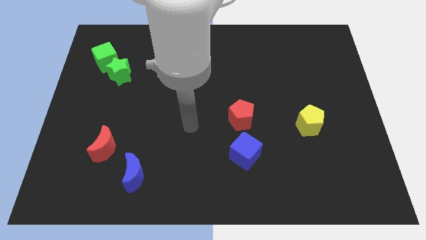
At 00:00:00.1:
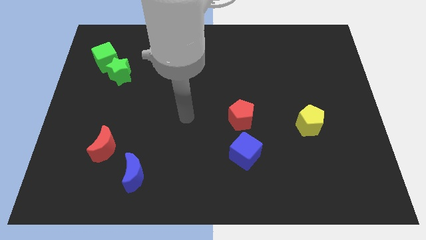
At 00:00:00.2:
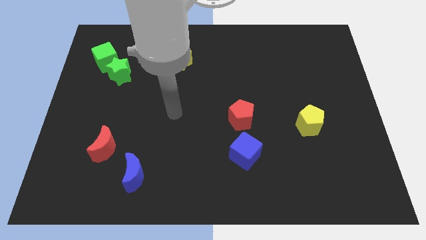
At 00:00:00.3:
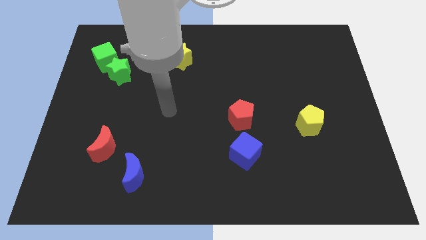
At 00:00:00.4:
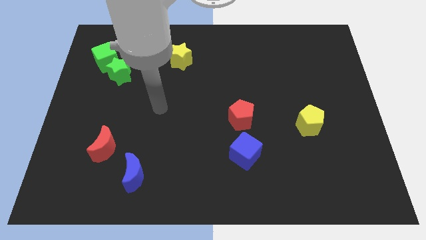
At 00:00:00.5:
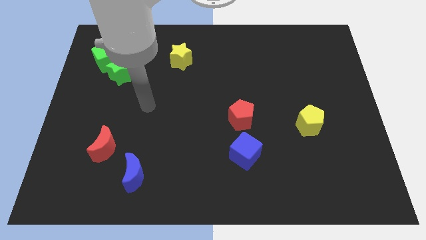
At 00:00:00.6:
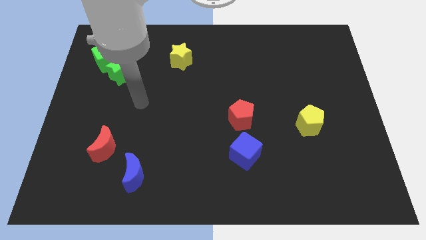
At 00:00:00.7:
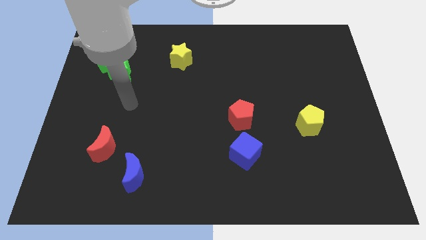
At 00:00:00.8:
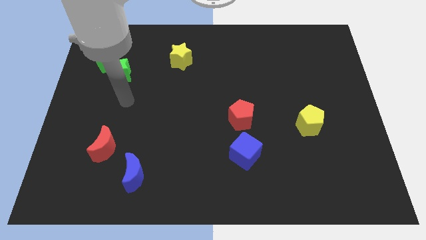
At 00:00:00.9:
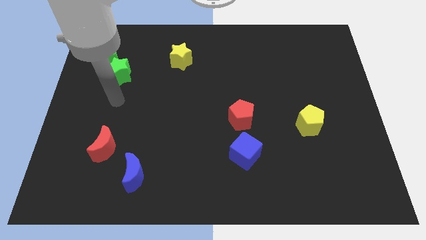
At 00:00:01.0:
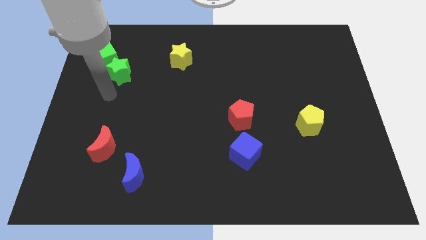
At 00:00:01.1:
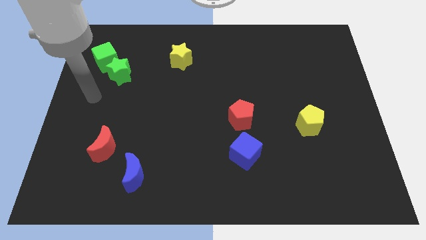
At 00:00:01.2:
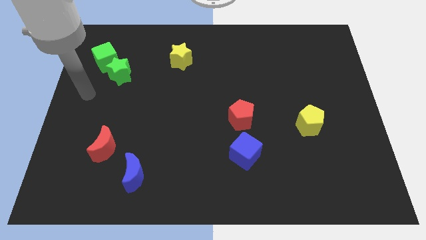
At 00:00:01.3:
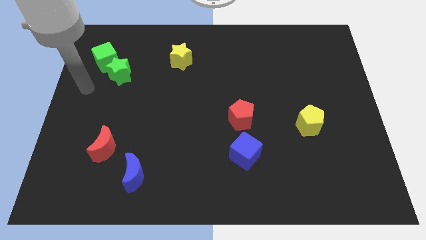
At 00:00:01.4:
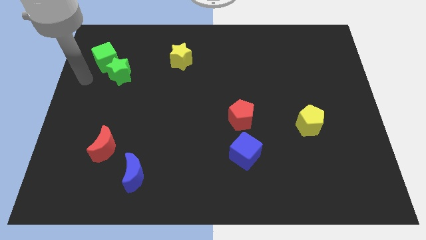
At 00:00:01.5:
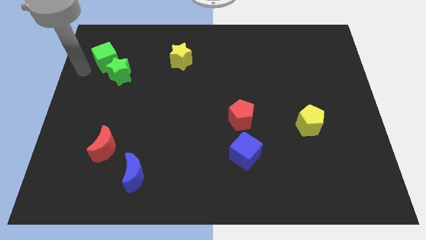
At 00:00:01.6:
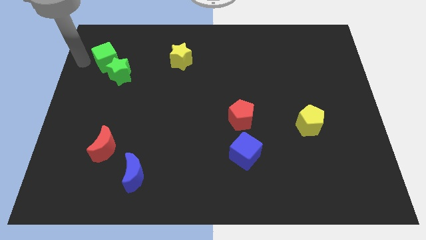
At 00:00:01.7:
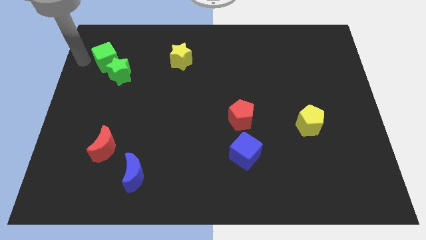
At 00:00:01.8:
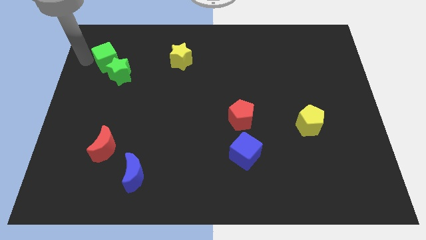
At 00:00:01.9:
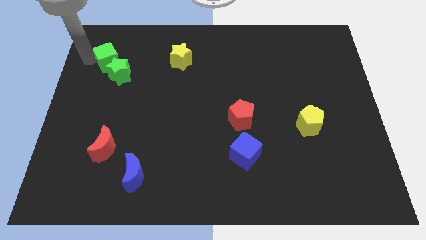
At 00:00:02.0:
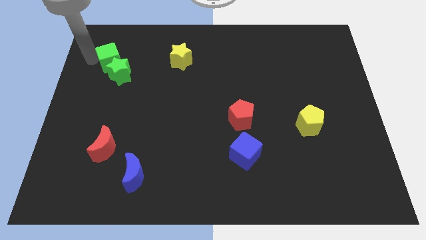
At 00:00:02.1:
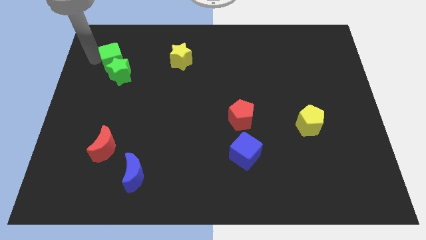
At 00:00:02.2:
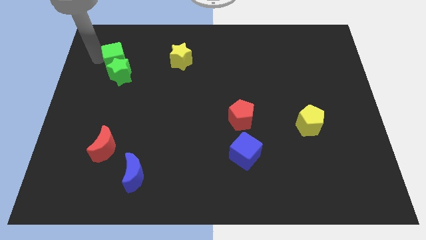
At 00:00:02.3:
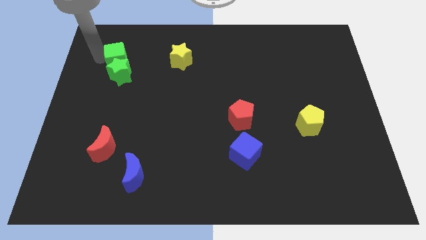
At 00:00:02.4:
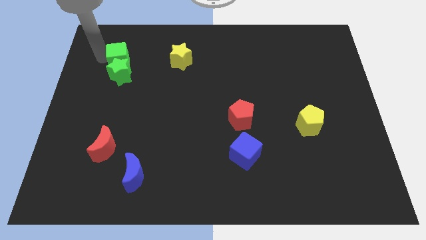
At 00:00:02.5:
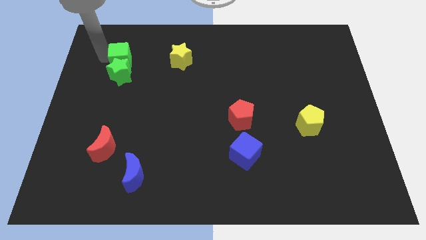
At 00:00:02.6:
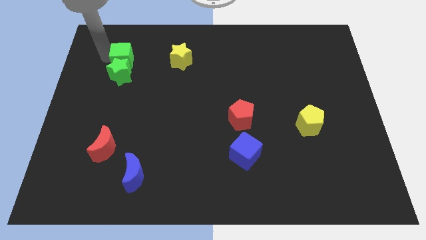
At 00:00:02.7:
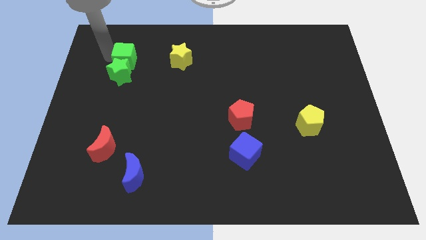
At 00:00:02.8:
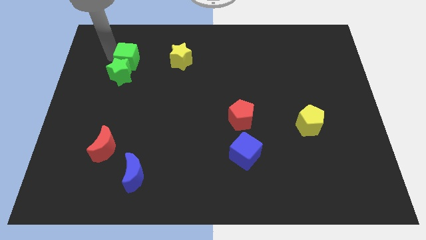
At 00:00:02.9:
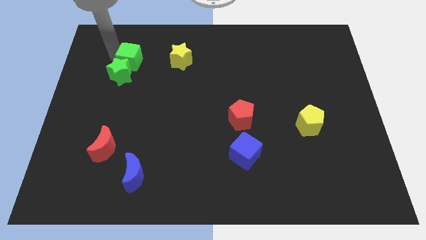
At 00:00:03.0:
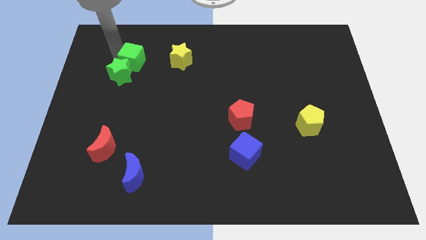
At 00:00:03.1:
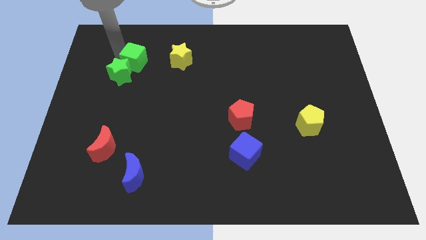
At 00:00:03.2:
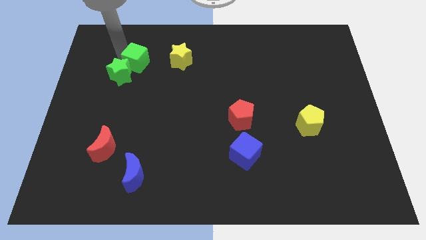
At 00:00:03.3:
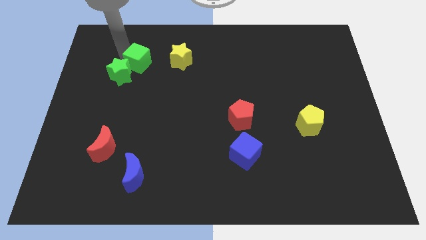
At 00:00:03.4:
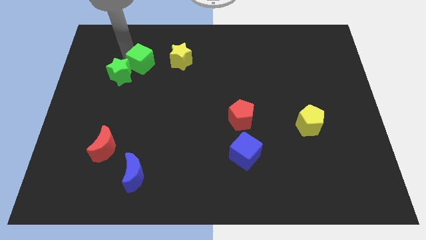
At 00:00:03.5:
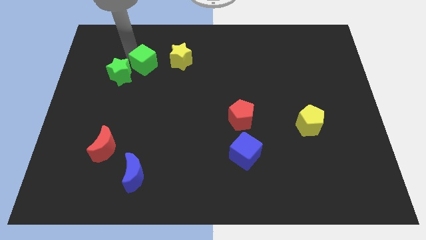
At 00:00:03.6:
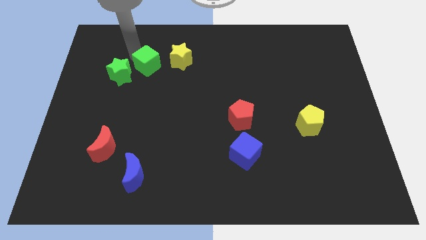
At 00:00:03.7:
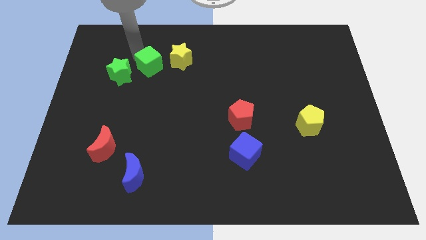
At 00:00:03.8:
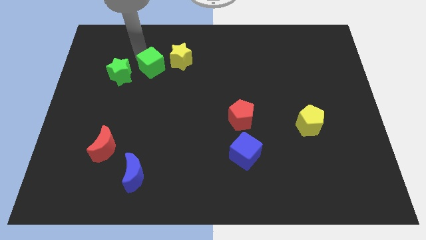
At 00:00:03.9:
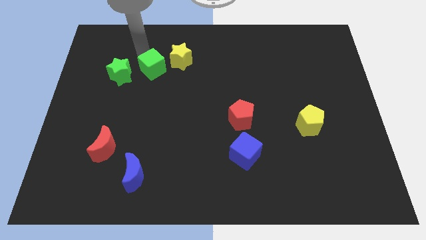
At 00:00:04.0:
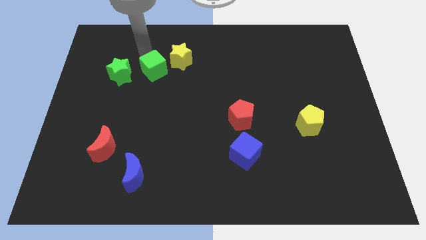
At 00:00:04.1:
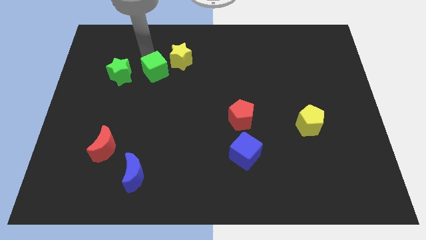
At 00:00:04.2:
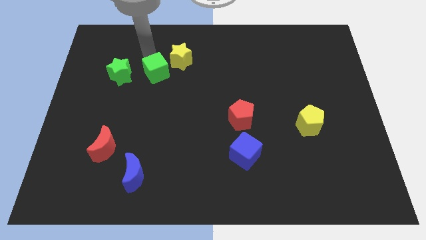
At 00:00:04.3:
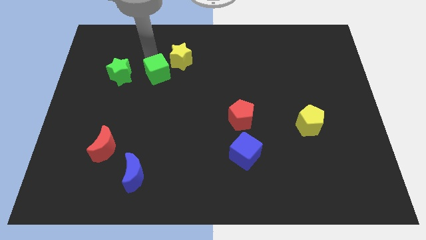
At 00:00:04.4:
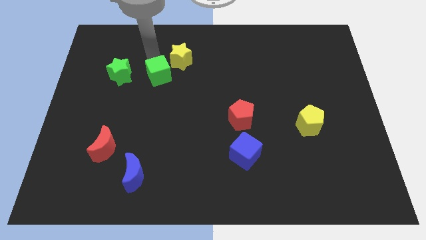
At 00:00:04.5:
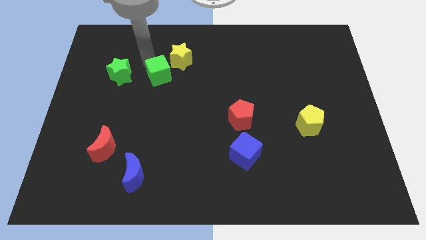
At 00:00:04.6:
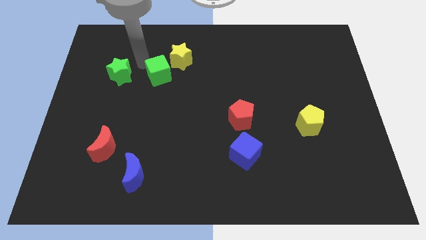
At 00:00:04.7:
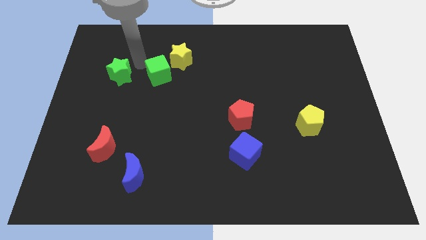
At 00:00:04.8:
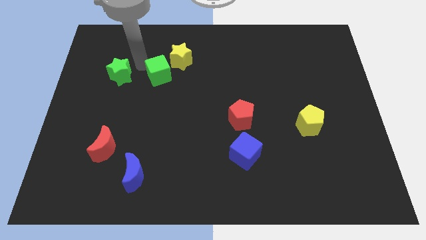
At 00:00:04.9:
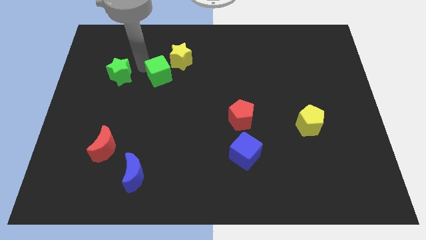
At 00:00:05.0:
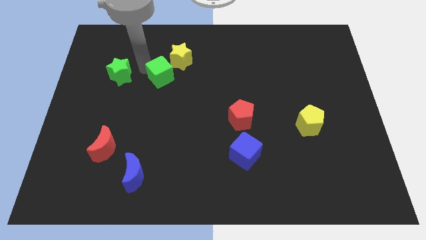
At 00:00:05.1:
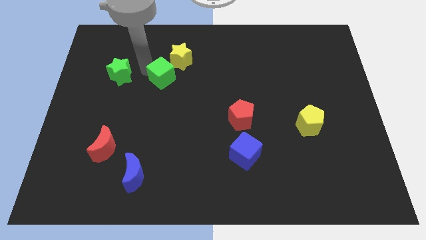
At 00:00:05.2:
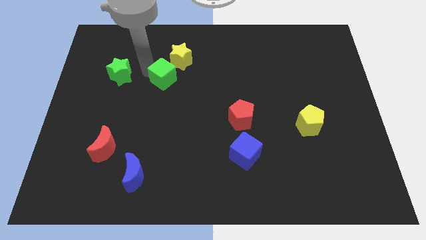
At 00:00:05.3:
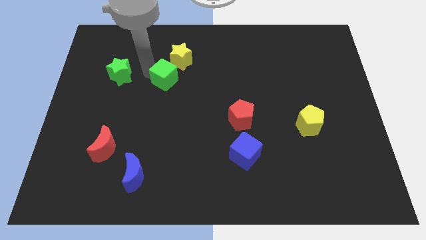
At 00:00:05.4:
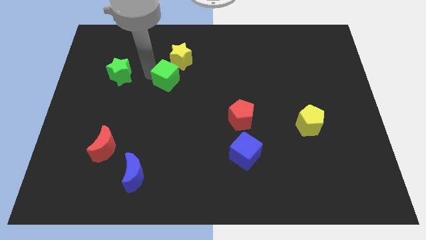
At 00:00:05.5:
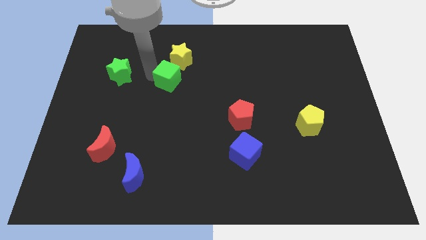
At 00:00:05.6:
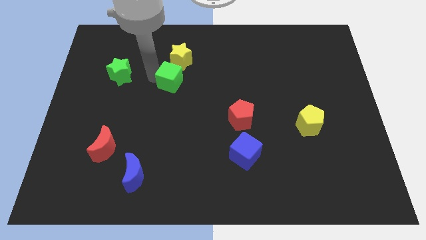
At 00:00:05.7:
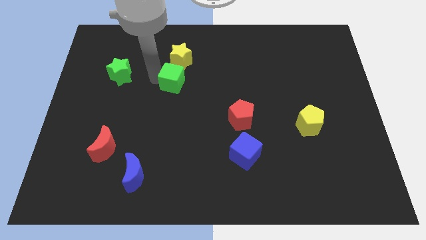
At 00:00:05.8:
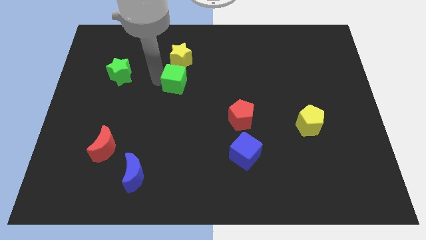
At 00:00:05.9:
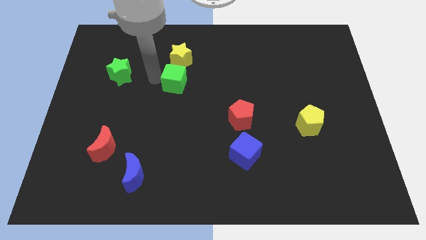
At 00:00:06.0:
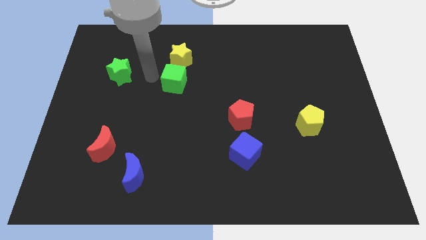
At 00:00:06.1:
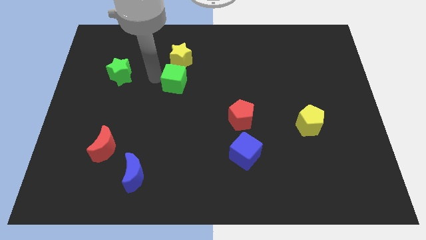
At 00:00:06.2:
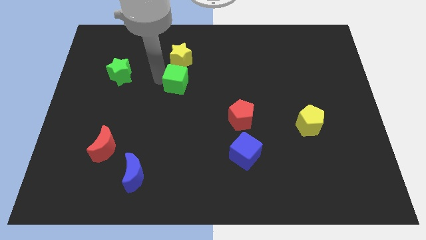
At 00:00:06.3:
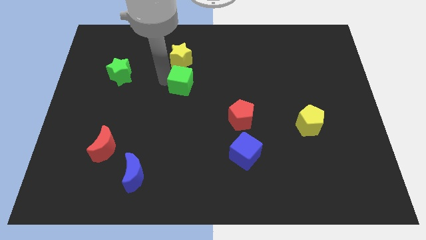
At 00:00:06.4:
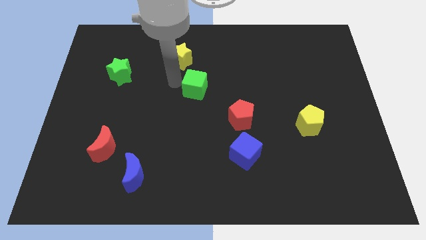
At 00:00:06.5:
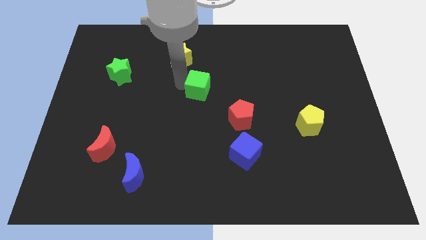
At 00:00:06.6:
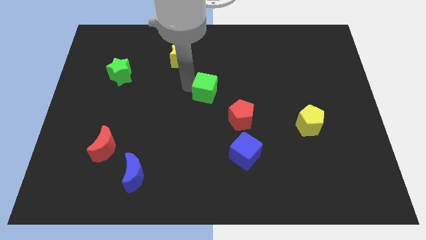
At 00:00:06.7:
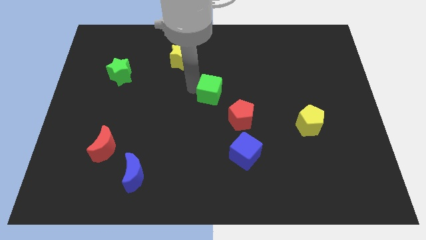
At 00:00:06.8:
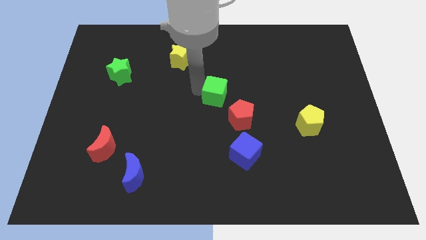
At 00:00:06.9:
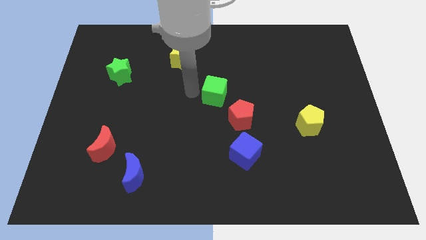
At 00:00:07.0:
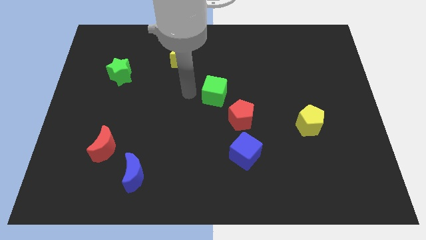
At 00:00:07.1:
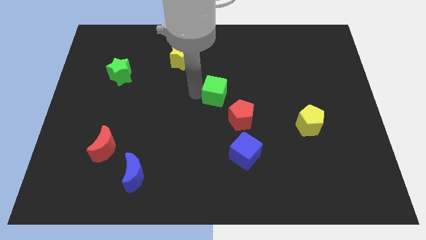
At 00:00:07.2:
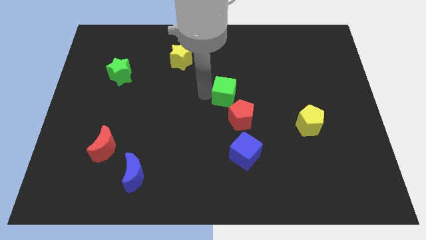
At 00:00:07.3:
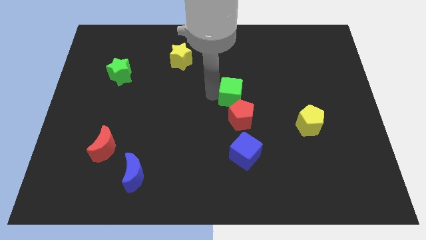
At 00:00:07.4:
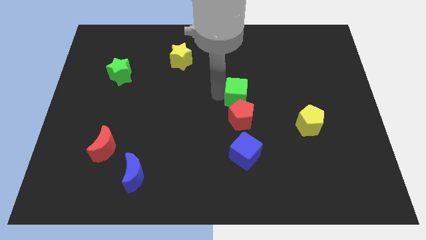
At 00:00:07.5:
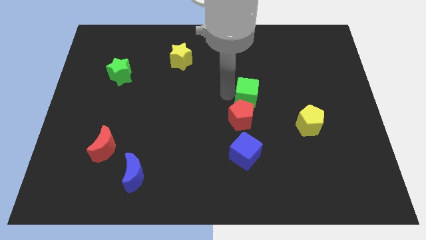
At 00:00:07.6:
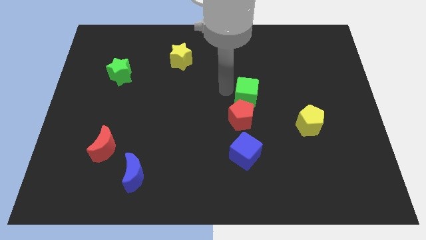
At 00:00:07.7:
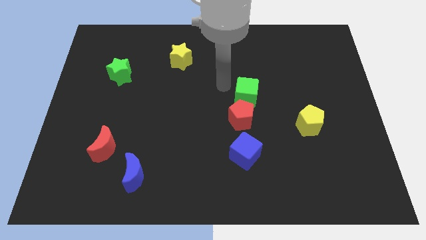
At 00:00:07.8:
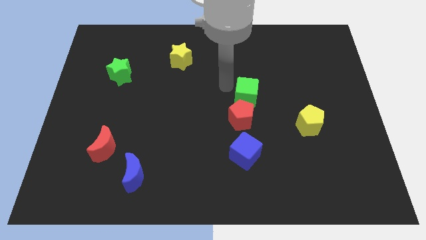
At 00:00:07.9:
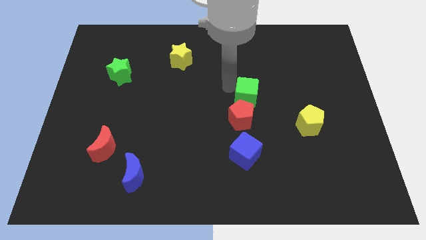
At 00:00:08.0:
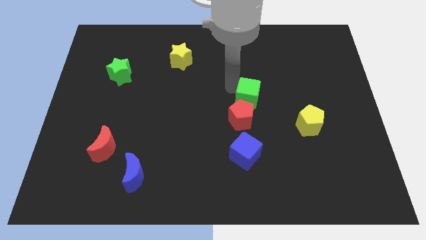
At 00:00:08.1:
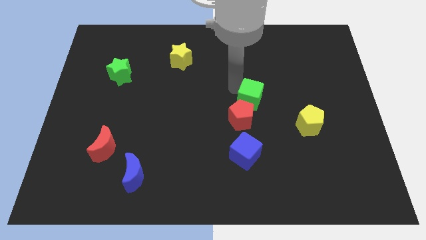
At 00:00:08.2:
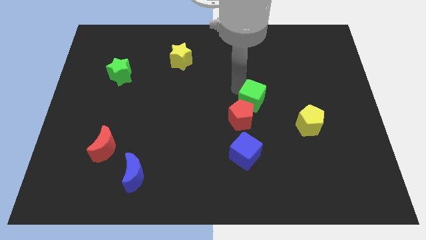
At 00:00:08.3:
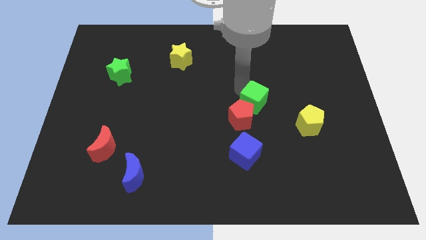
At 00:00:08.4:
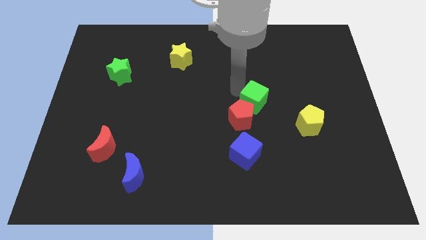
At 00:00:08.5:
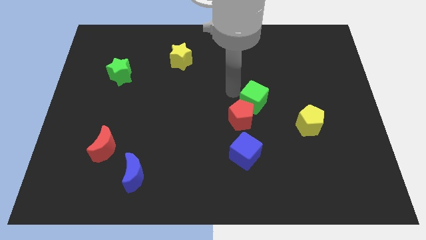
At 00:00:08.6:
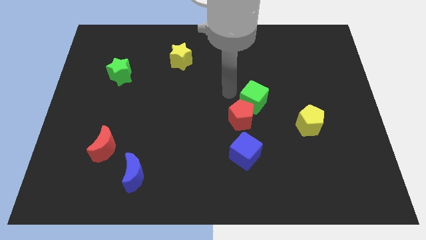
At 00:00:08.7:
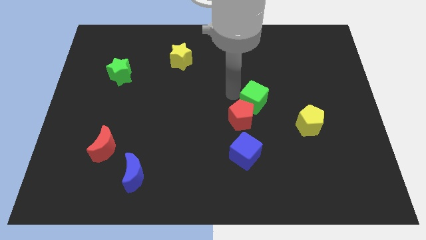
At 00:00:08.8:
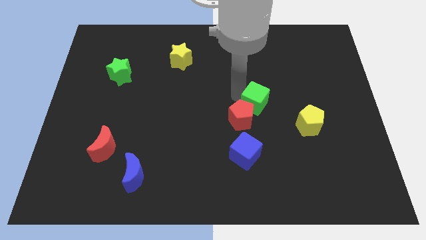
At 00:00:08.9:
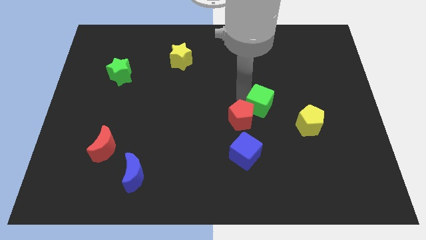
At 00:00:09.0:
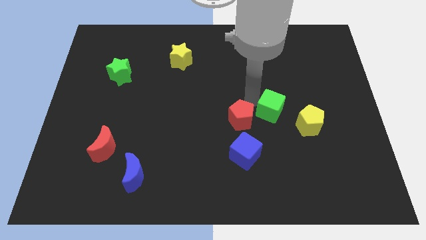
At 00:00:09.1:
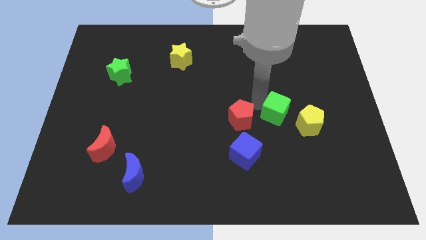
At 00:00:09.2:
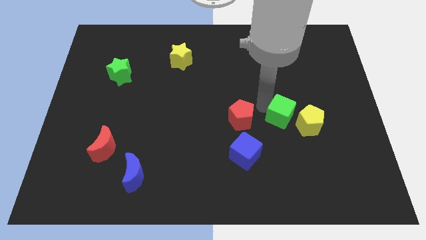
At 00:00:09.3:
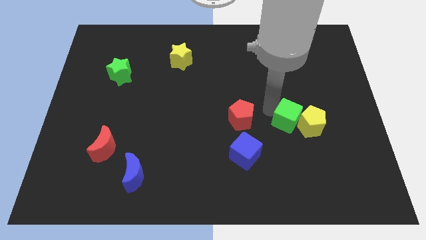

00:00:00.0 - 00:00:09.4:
push the green cube towards the yellow pentagon
